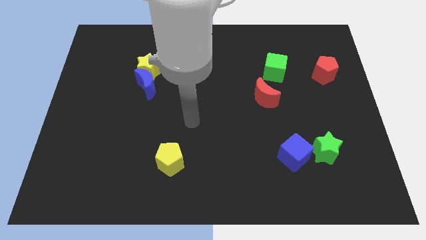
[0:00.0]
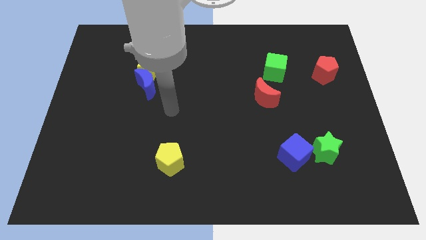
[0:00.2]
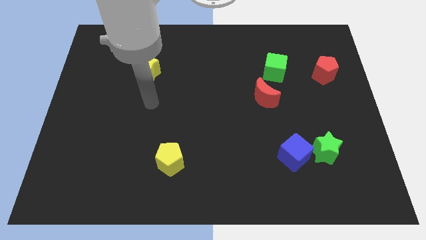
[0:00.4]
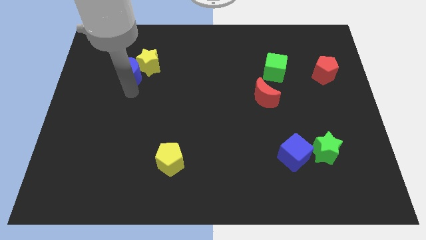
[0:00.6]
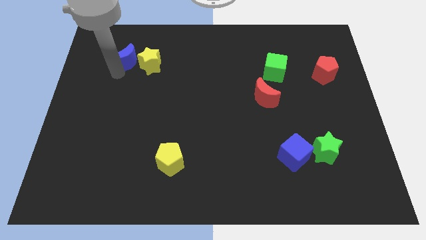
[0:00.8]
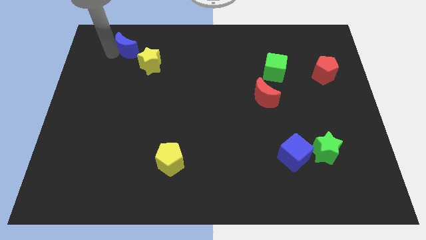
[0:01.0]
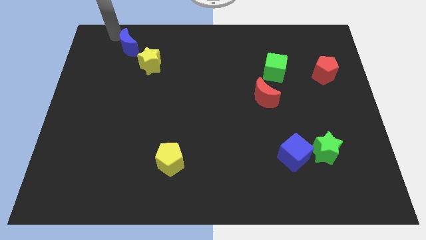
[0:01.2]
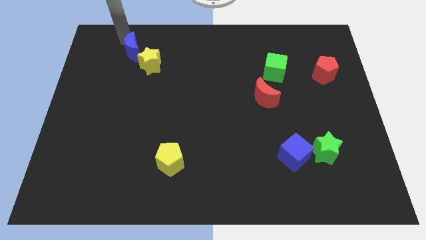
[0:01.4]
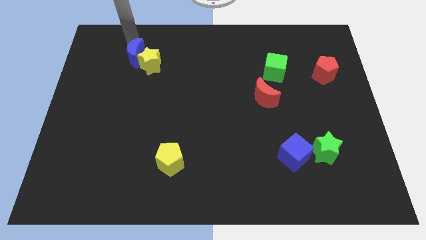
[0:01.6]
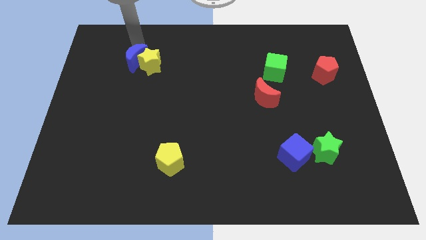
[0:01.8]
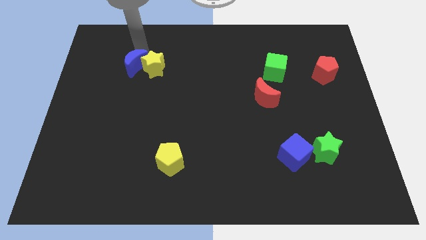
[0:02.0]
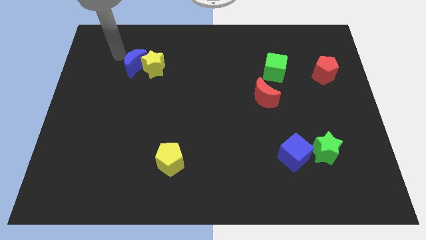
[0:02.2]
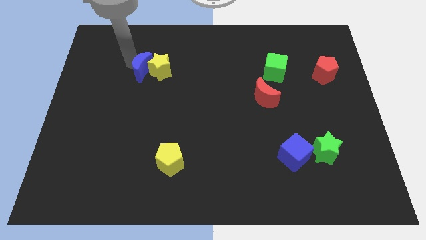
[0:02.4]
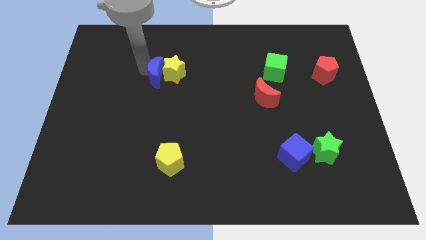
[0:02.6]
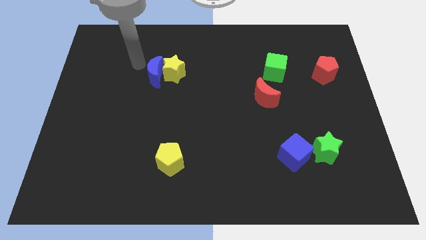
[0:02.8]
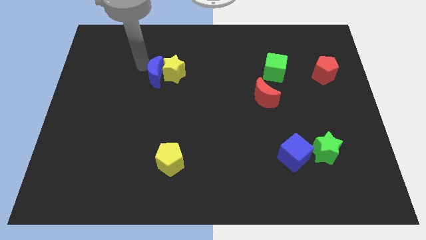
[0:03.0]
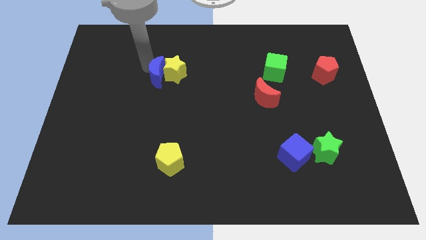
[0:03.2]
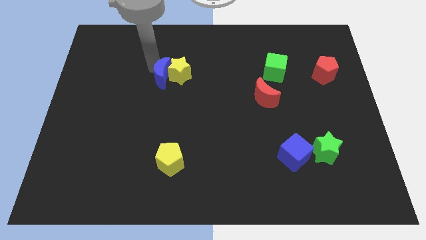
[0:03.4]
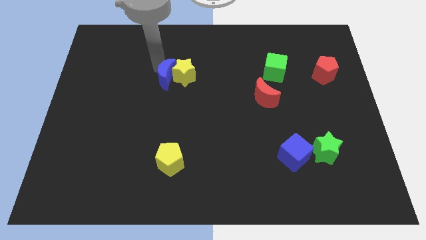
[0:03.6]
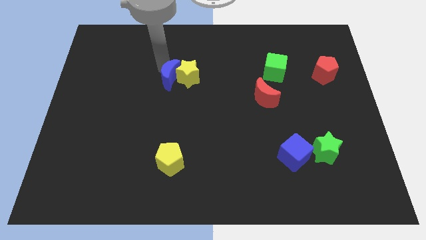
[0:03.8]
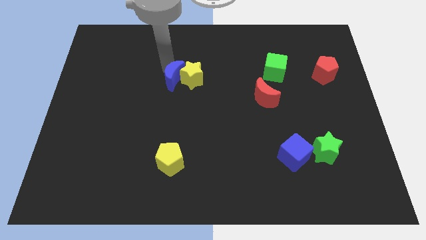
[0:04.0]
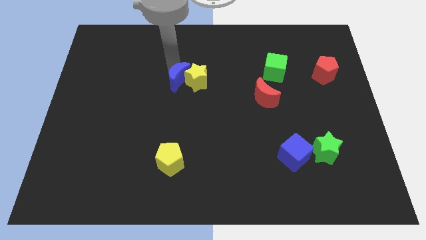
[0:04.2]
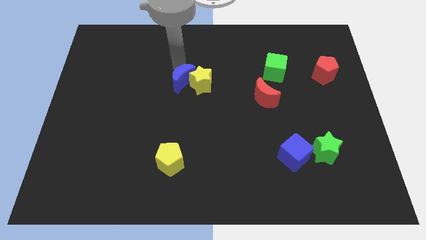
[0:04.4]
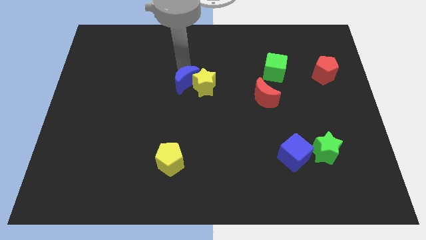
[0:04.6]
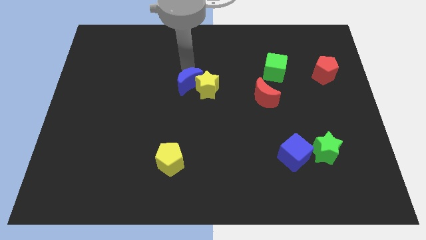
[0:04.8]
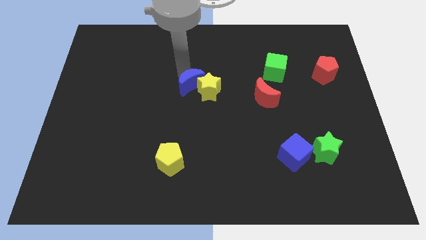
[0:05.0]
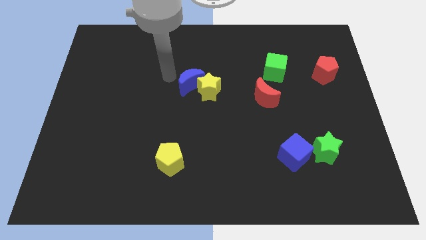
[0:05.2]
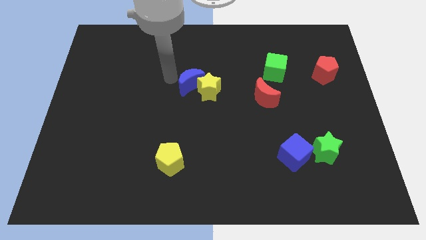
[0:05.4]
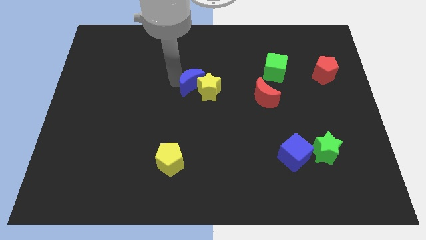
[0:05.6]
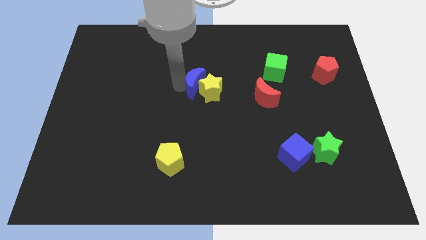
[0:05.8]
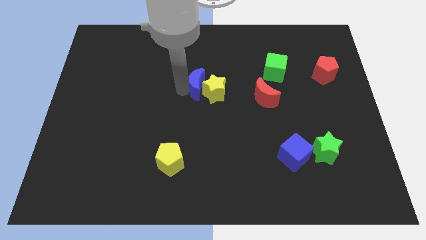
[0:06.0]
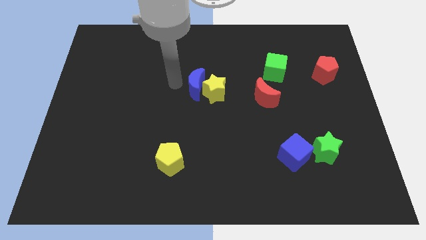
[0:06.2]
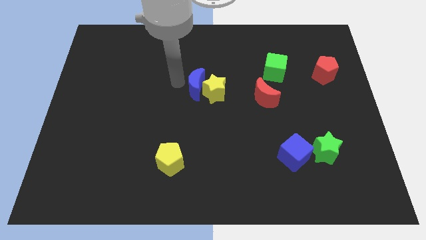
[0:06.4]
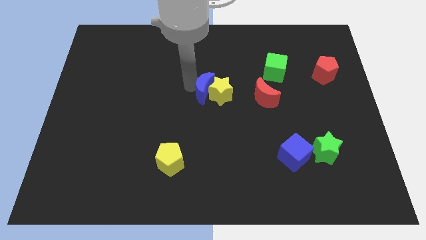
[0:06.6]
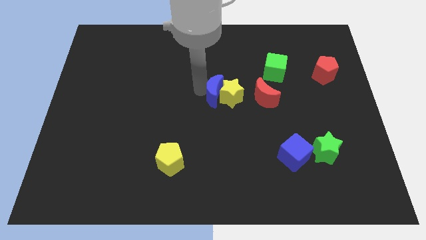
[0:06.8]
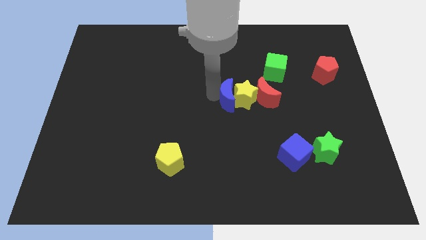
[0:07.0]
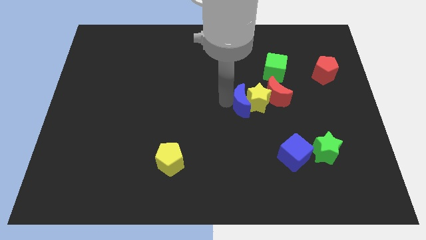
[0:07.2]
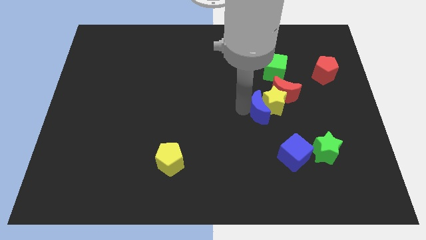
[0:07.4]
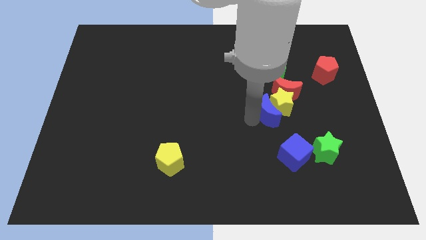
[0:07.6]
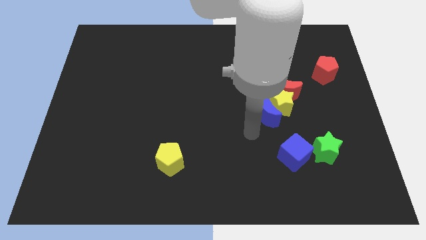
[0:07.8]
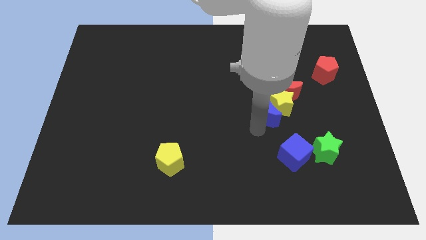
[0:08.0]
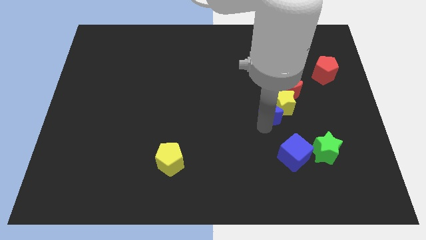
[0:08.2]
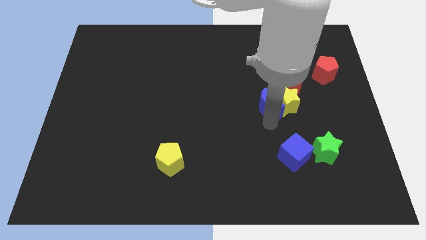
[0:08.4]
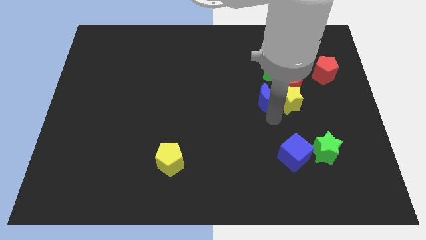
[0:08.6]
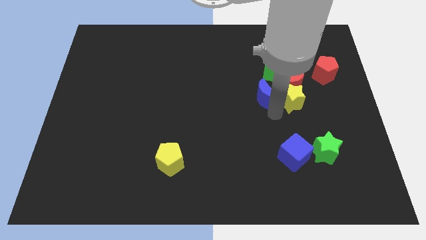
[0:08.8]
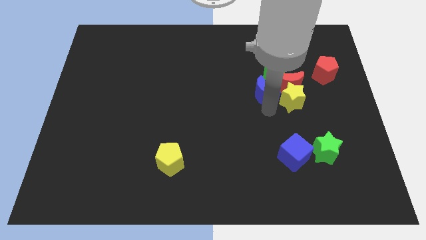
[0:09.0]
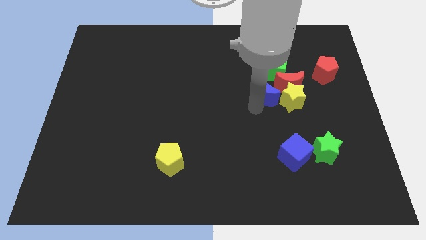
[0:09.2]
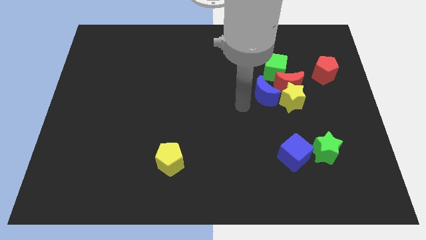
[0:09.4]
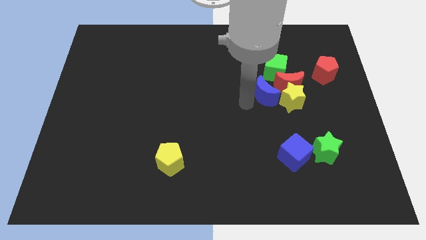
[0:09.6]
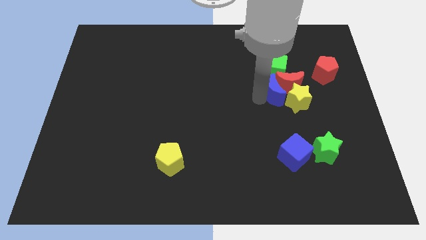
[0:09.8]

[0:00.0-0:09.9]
slide the blue moon next to the red moon

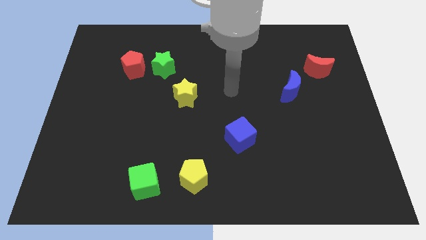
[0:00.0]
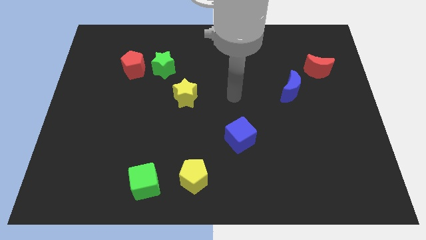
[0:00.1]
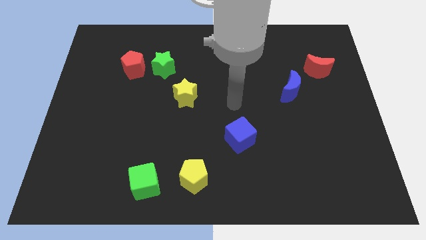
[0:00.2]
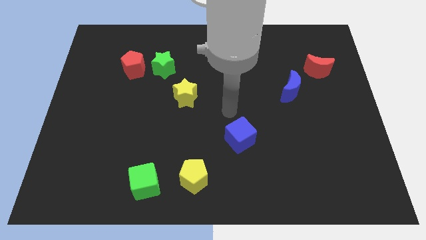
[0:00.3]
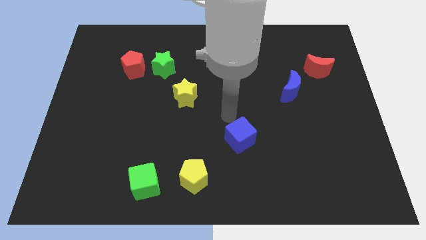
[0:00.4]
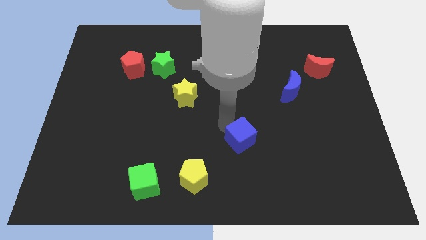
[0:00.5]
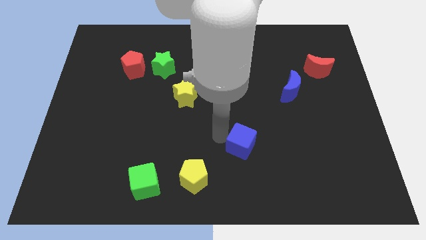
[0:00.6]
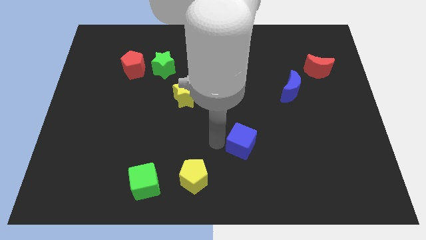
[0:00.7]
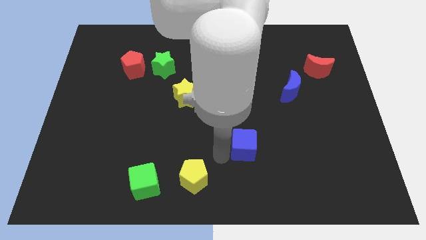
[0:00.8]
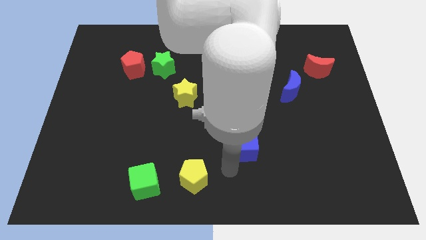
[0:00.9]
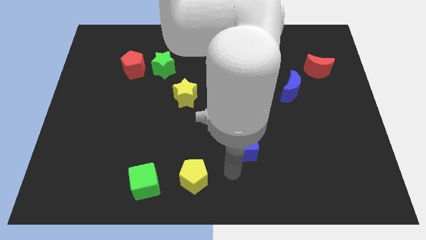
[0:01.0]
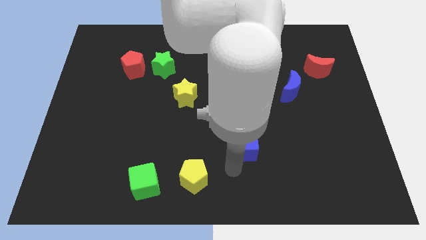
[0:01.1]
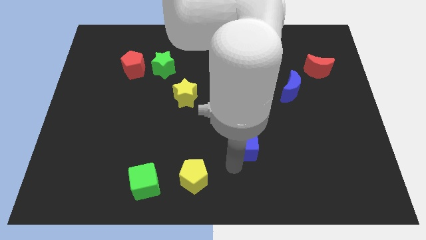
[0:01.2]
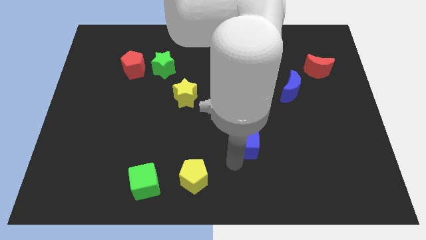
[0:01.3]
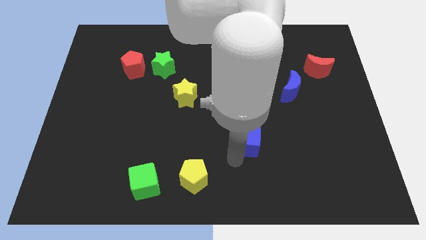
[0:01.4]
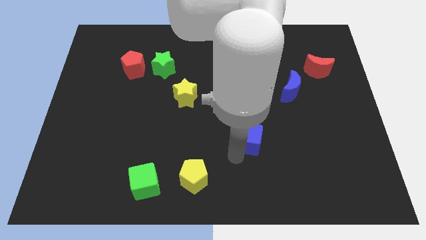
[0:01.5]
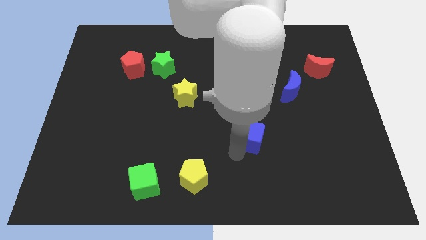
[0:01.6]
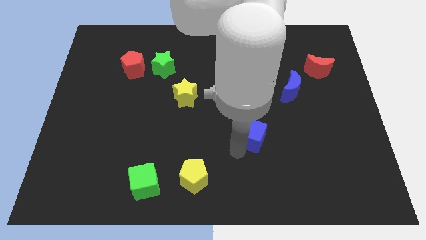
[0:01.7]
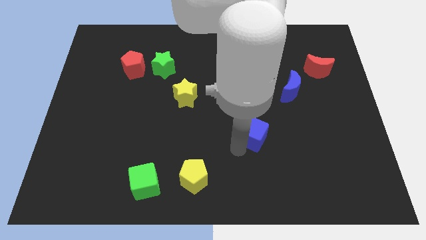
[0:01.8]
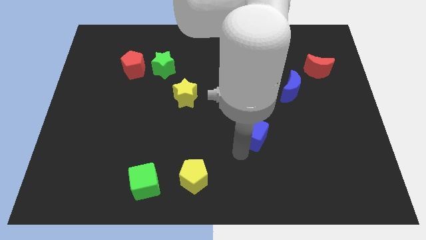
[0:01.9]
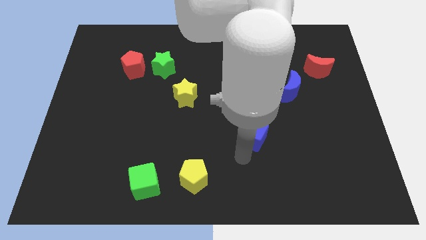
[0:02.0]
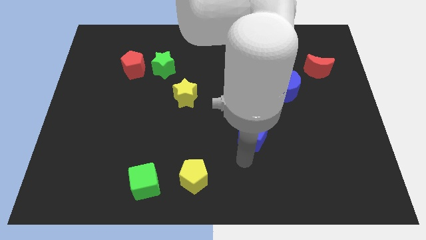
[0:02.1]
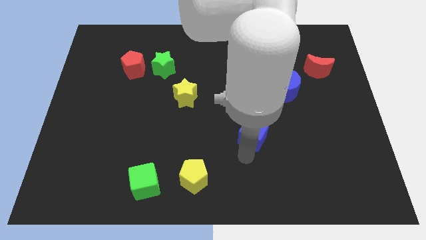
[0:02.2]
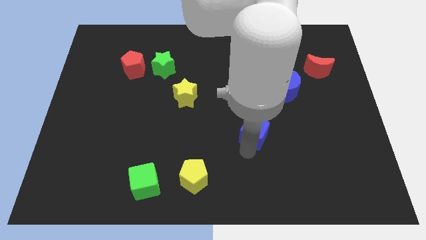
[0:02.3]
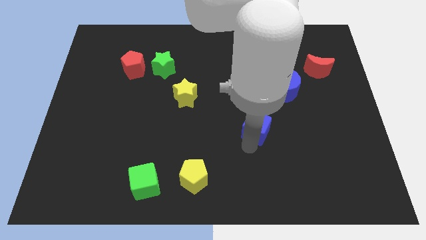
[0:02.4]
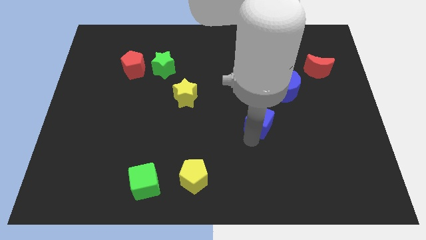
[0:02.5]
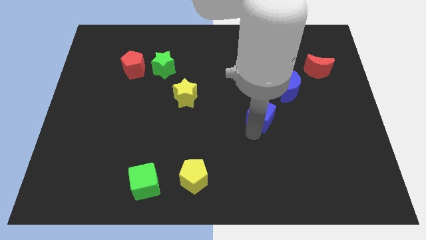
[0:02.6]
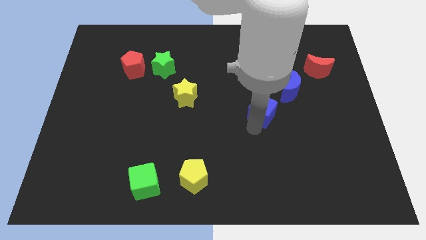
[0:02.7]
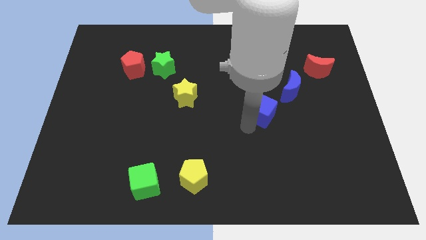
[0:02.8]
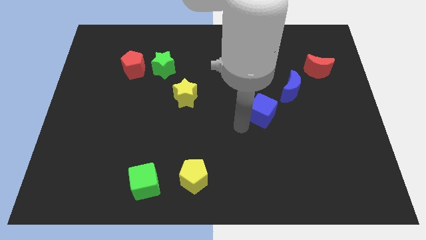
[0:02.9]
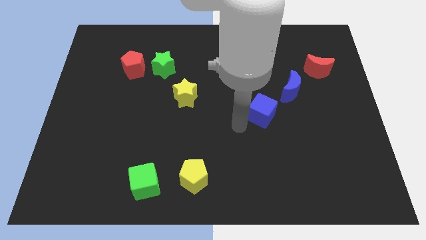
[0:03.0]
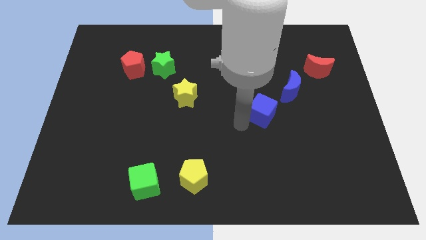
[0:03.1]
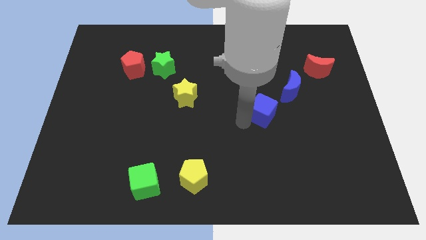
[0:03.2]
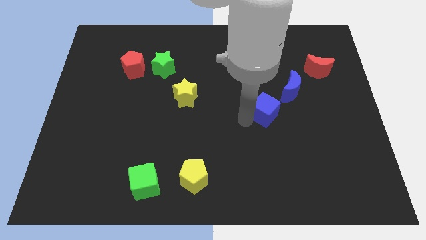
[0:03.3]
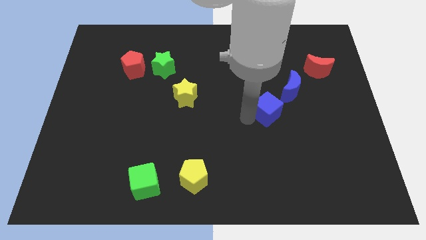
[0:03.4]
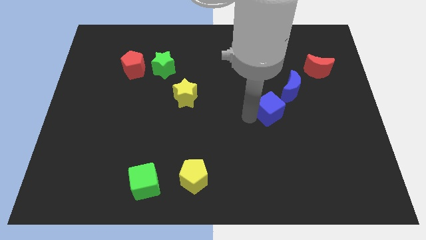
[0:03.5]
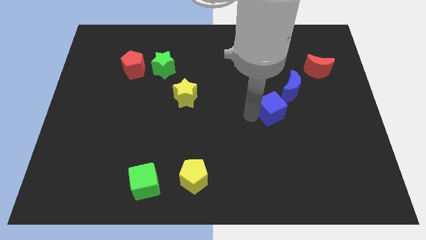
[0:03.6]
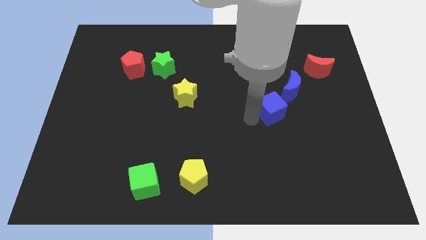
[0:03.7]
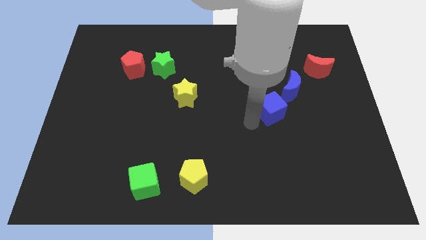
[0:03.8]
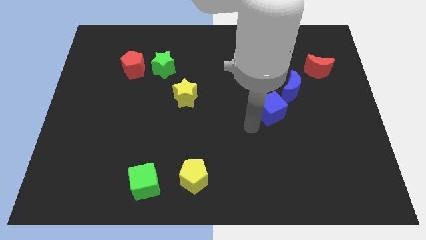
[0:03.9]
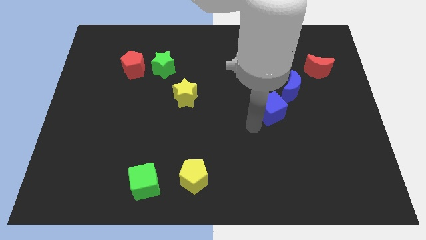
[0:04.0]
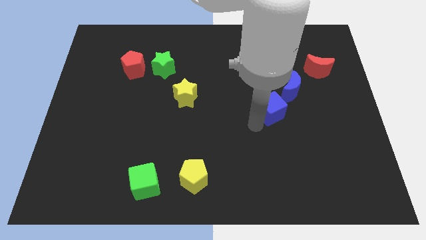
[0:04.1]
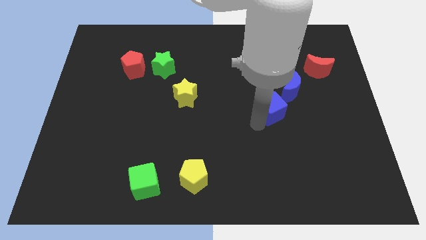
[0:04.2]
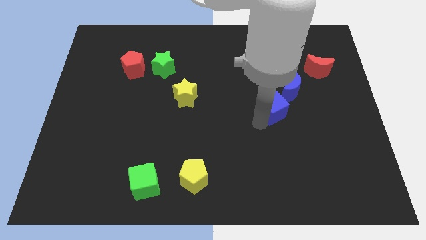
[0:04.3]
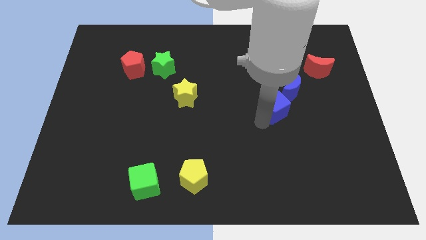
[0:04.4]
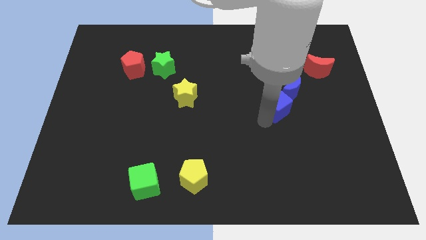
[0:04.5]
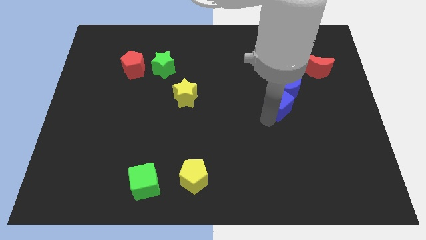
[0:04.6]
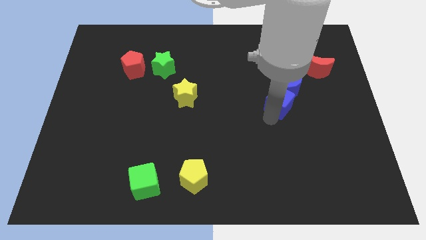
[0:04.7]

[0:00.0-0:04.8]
push the blue cube next to the blue moon
